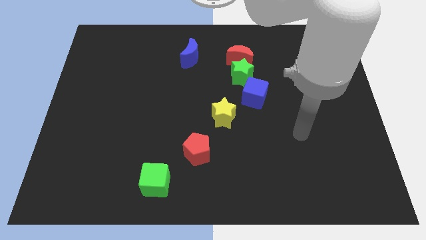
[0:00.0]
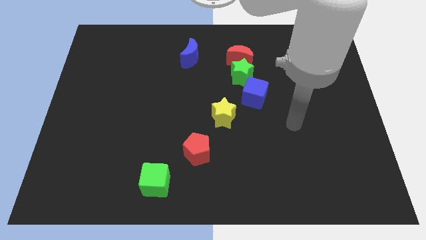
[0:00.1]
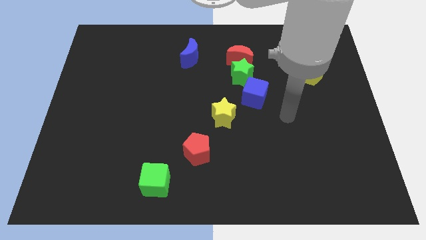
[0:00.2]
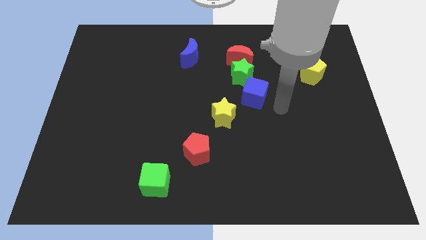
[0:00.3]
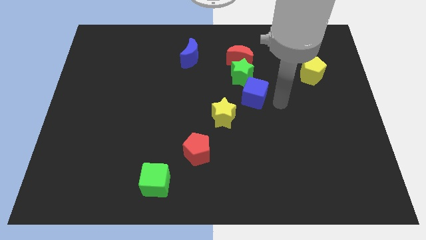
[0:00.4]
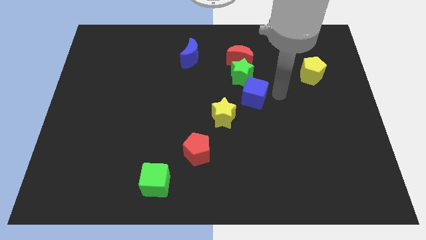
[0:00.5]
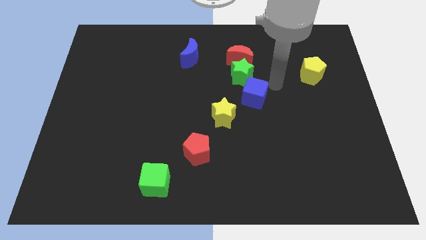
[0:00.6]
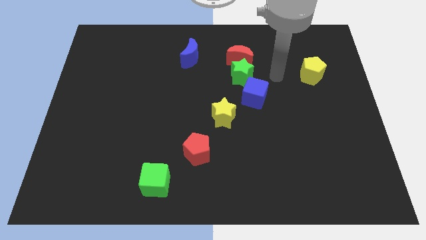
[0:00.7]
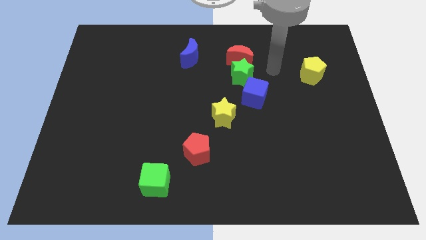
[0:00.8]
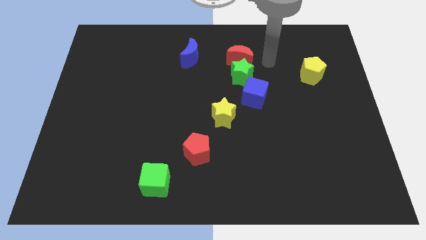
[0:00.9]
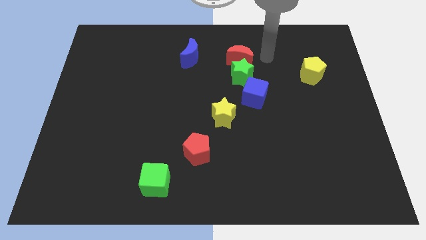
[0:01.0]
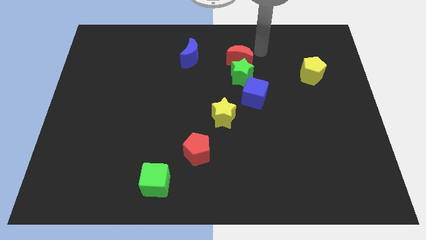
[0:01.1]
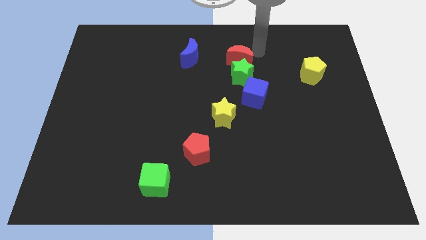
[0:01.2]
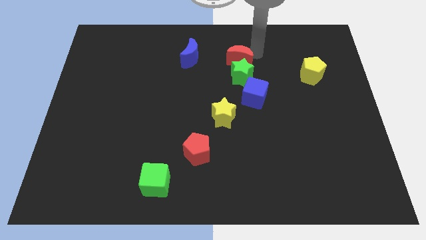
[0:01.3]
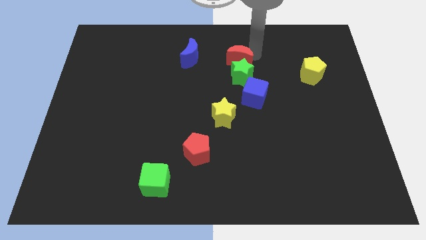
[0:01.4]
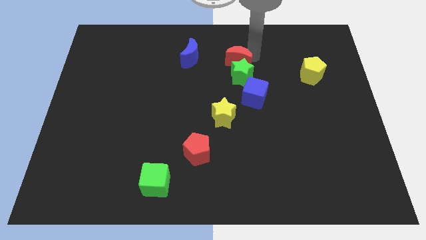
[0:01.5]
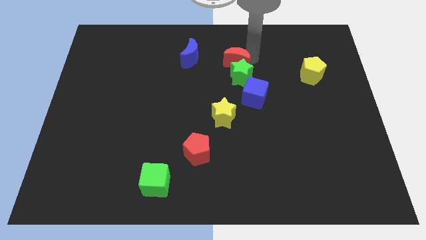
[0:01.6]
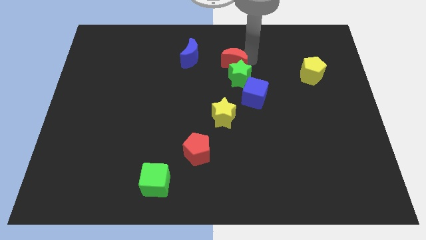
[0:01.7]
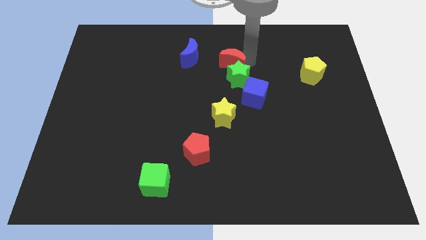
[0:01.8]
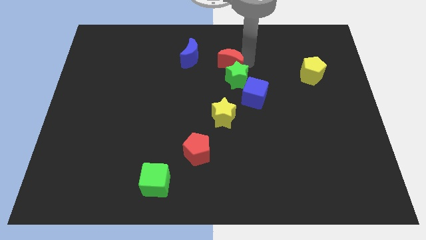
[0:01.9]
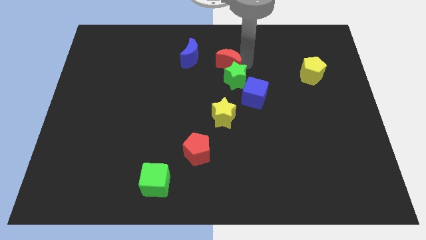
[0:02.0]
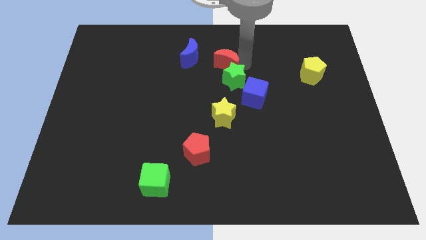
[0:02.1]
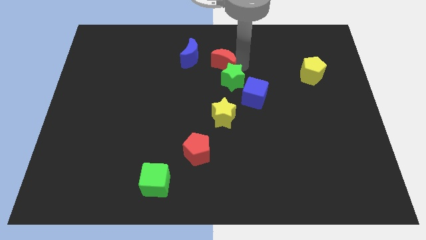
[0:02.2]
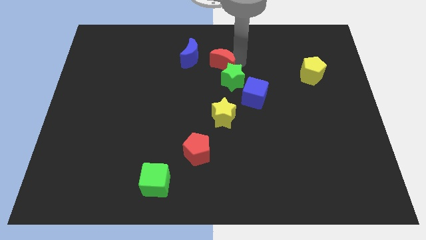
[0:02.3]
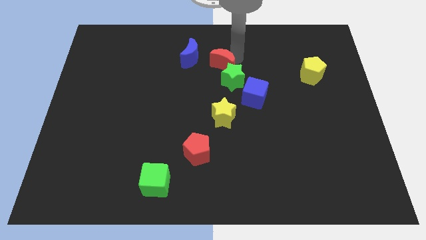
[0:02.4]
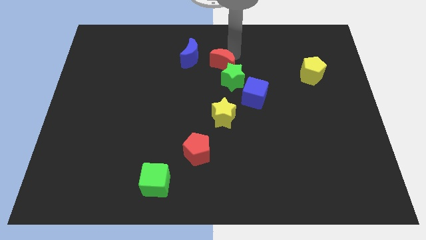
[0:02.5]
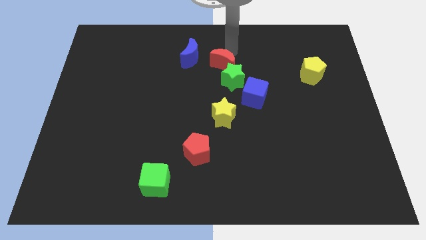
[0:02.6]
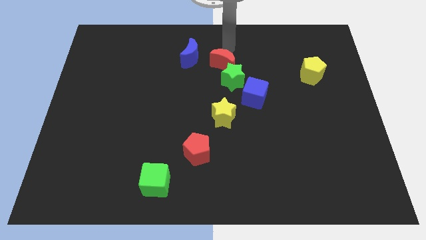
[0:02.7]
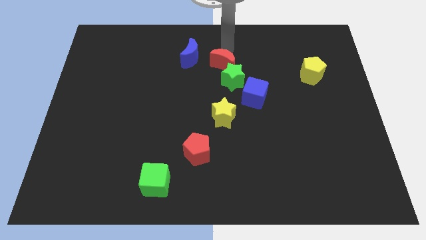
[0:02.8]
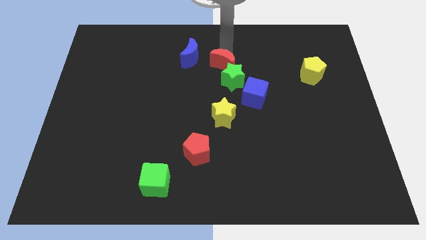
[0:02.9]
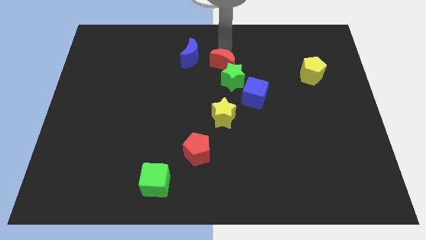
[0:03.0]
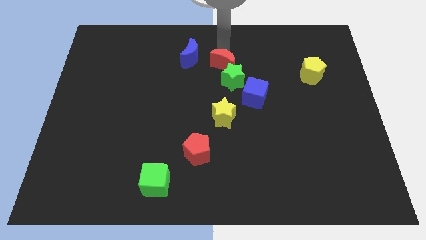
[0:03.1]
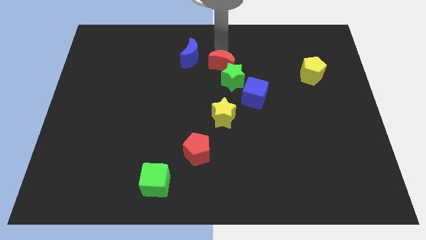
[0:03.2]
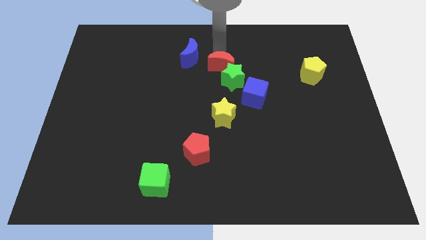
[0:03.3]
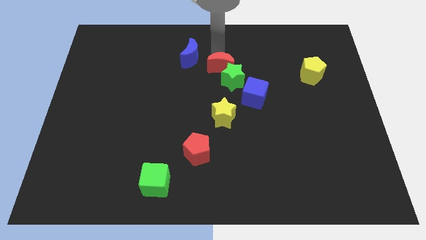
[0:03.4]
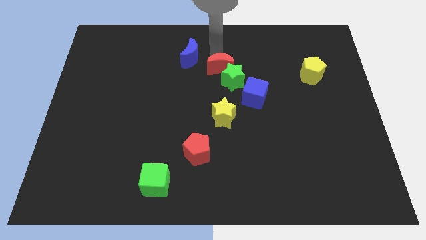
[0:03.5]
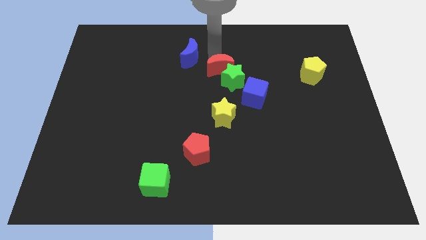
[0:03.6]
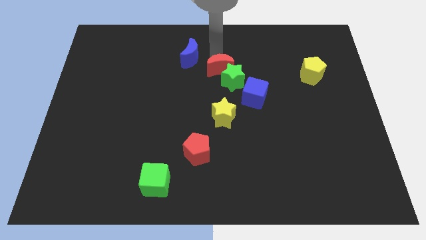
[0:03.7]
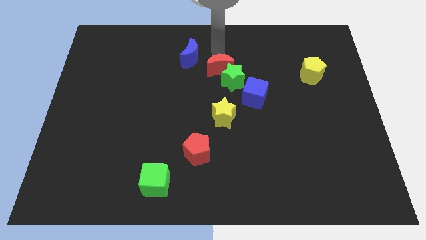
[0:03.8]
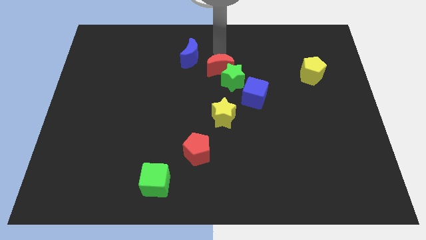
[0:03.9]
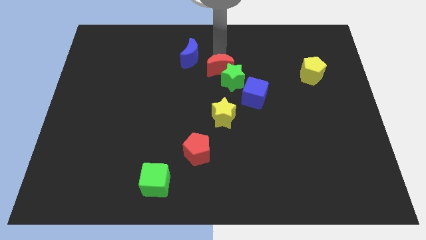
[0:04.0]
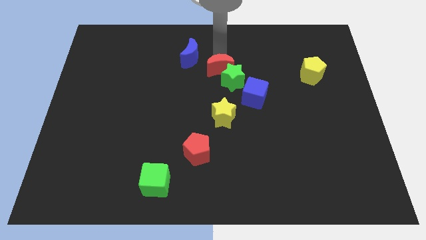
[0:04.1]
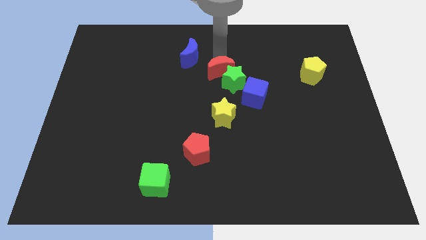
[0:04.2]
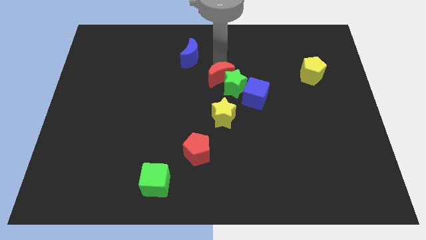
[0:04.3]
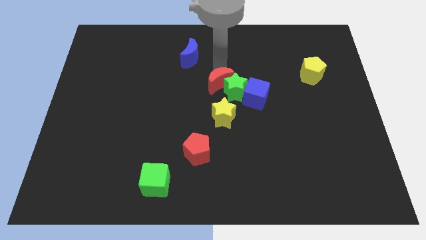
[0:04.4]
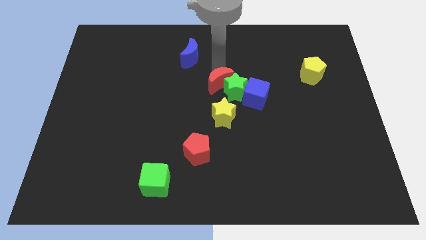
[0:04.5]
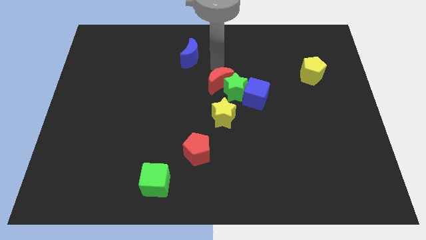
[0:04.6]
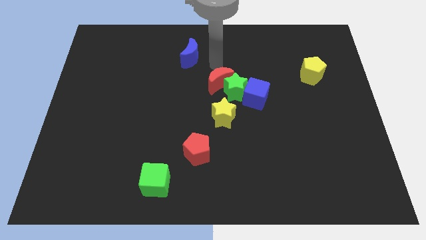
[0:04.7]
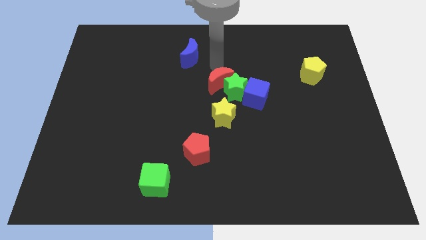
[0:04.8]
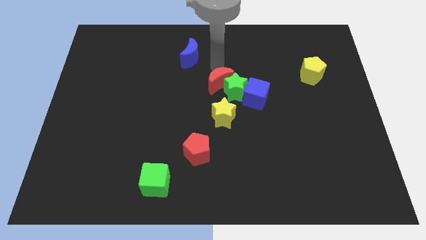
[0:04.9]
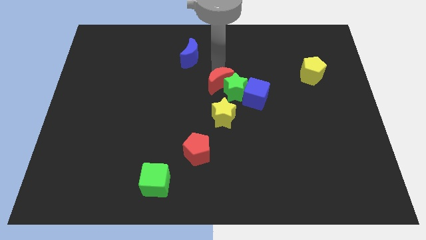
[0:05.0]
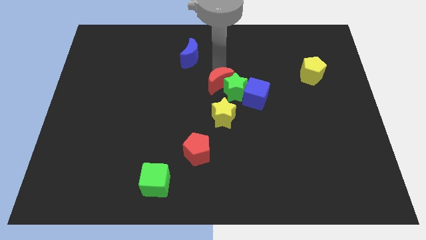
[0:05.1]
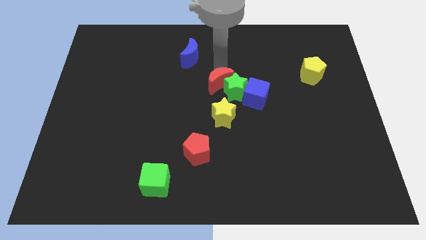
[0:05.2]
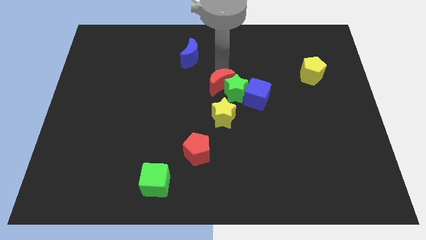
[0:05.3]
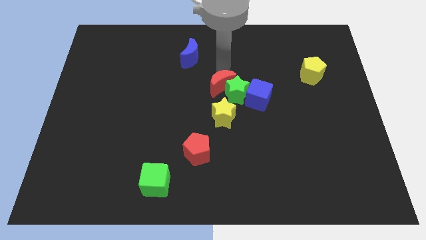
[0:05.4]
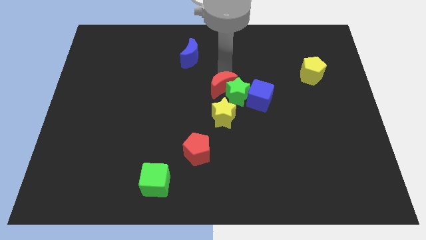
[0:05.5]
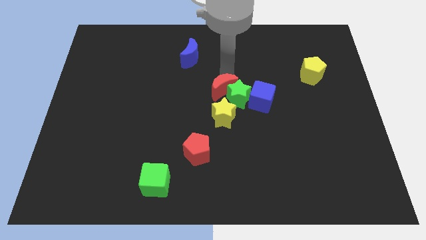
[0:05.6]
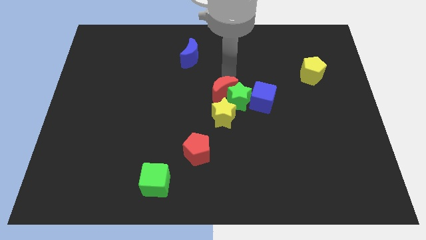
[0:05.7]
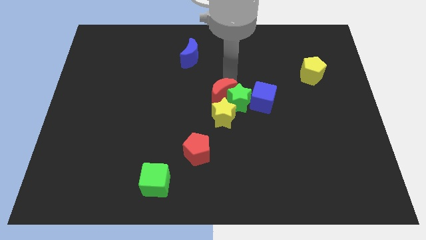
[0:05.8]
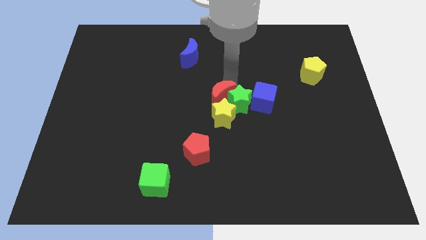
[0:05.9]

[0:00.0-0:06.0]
move the red moon close to the yellow star

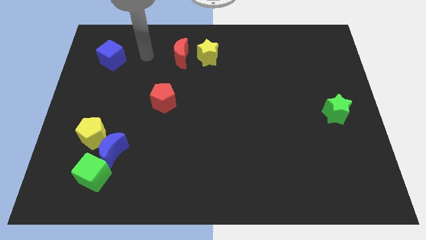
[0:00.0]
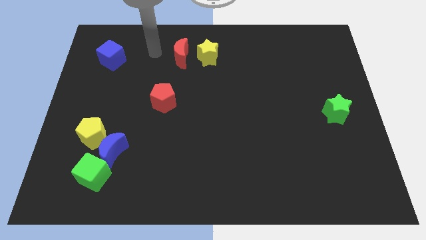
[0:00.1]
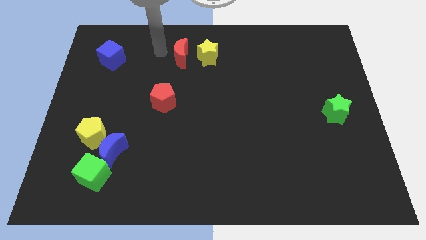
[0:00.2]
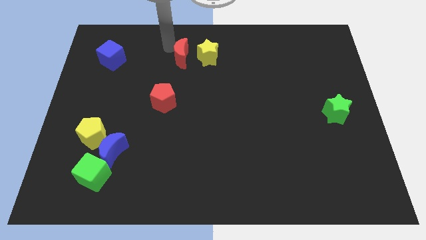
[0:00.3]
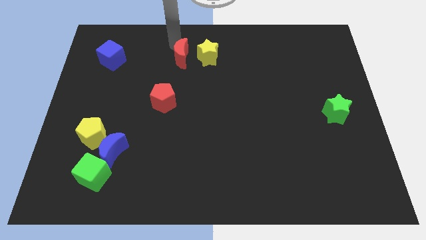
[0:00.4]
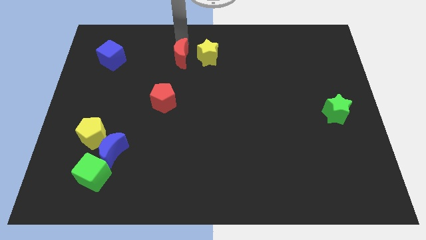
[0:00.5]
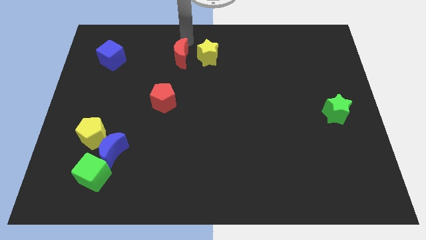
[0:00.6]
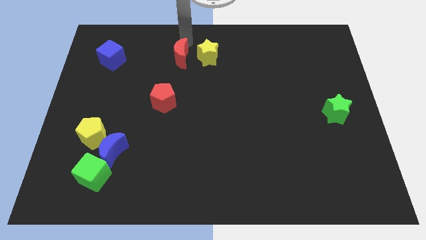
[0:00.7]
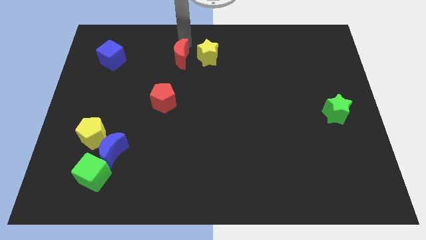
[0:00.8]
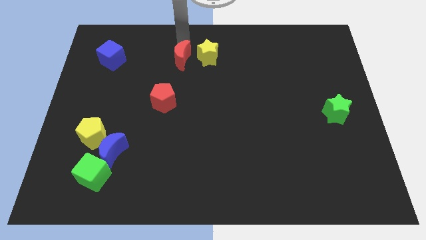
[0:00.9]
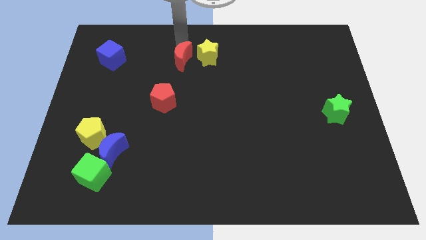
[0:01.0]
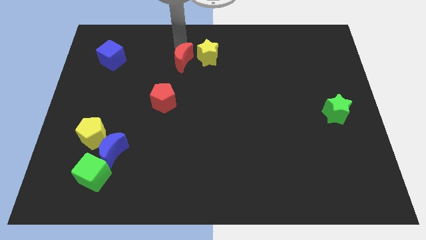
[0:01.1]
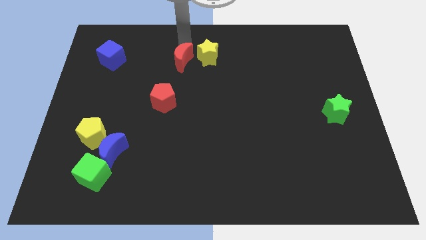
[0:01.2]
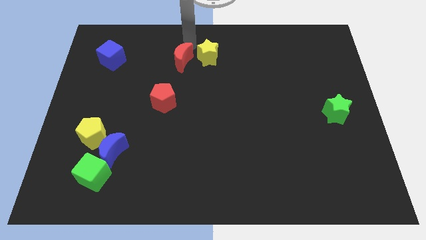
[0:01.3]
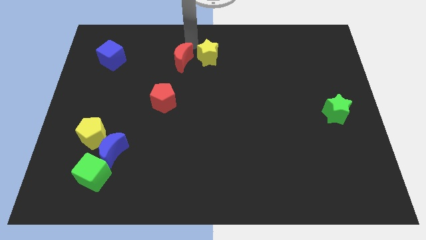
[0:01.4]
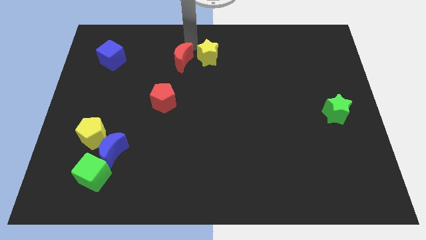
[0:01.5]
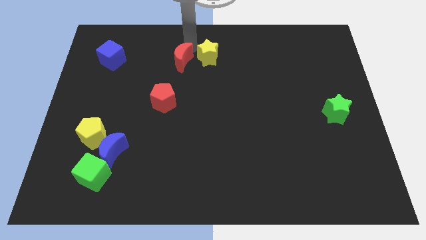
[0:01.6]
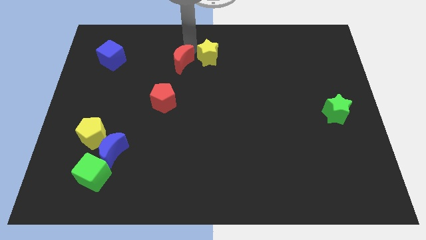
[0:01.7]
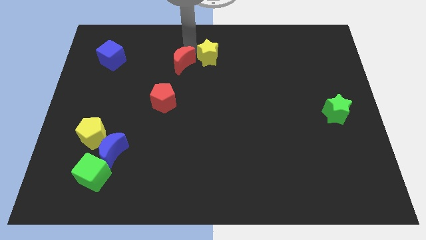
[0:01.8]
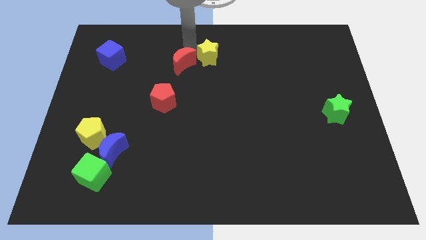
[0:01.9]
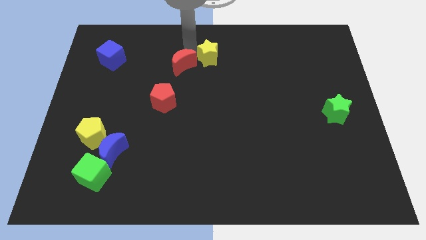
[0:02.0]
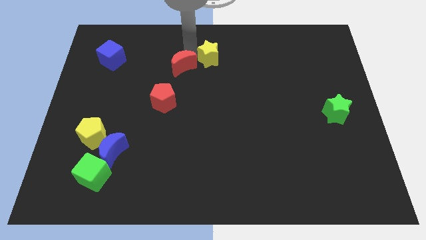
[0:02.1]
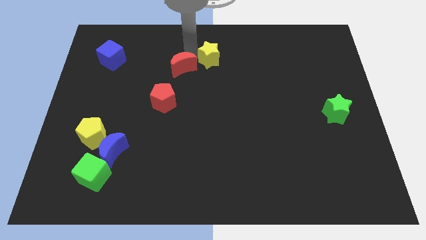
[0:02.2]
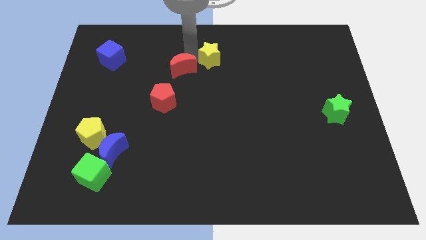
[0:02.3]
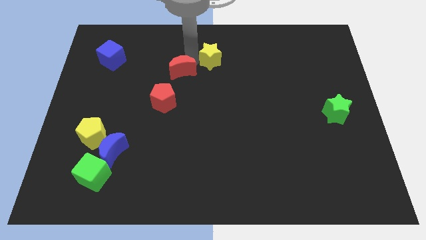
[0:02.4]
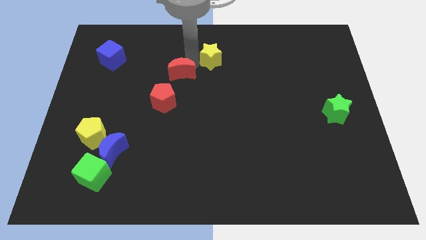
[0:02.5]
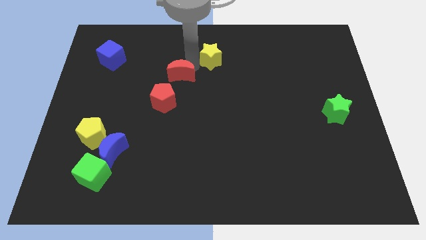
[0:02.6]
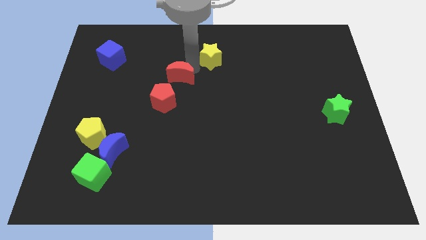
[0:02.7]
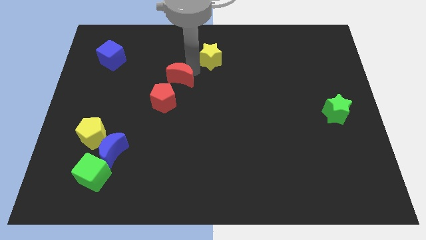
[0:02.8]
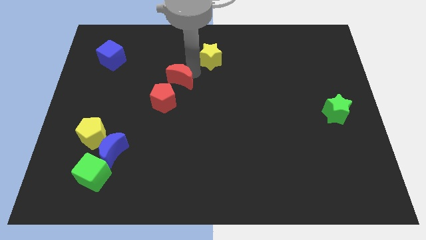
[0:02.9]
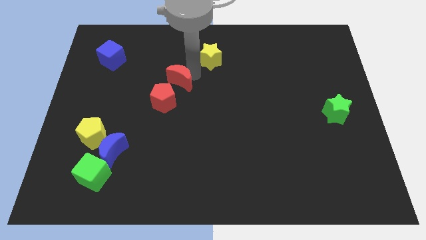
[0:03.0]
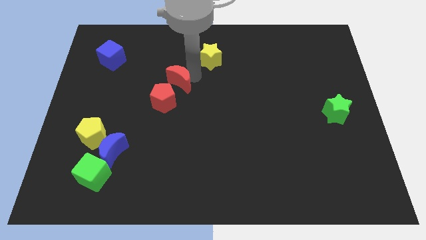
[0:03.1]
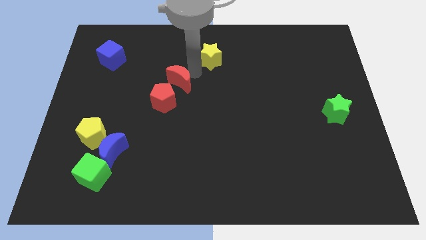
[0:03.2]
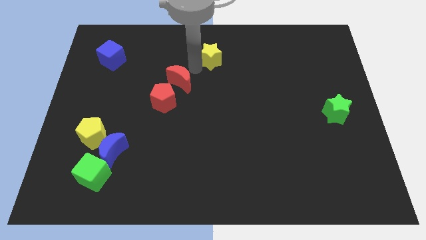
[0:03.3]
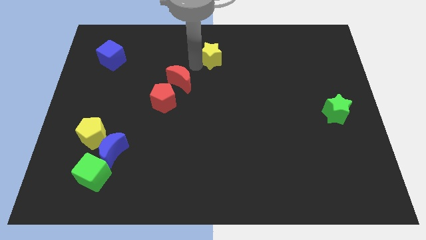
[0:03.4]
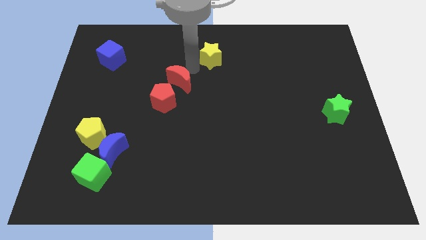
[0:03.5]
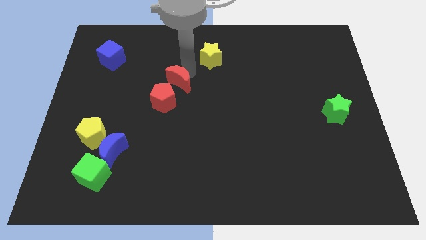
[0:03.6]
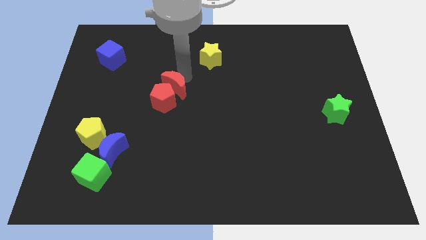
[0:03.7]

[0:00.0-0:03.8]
slide the red moon towards the red pentagon
